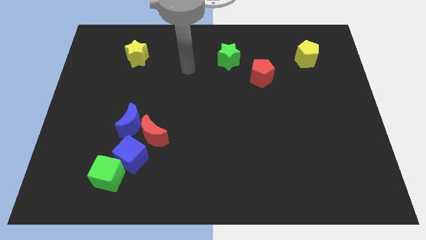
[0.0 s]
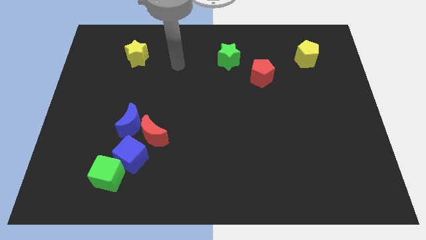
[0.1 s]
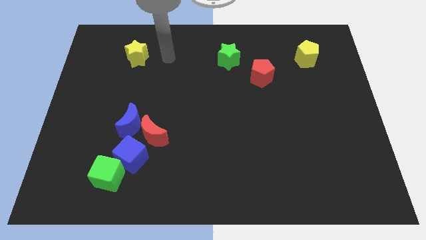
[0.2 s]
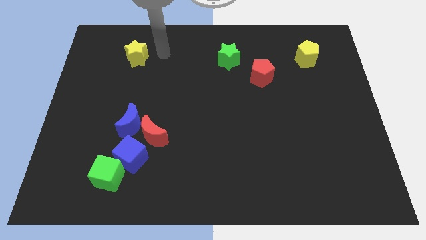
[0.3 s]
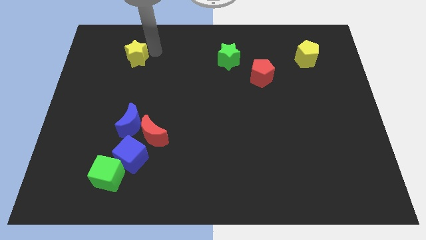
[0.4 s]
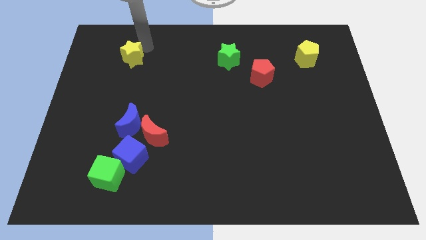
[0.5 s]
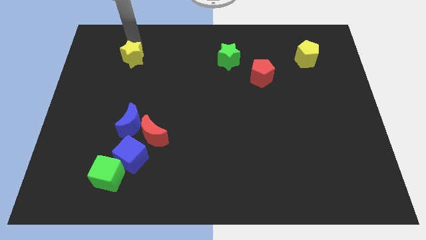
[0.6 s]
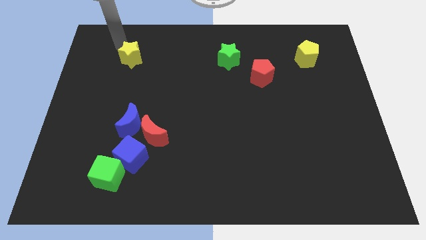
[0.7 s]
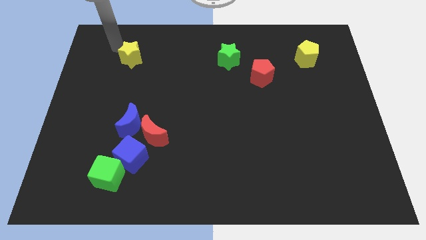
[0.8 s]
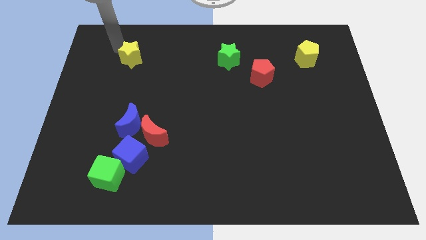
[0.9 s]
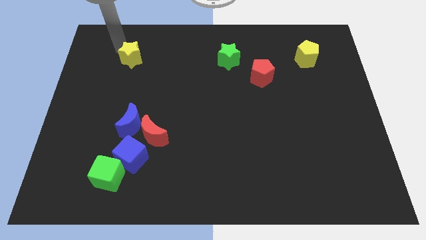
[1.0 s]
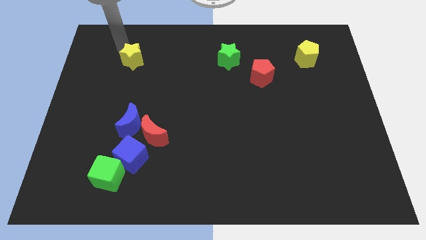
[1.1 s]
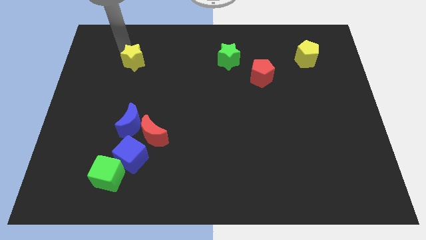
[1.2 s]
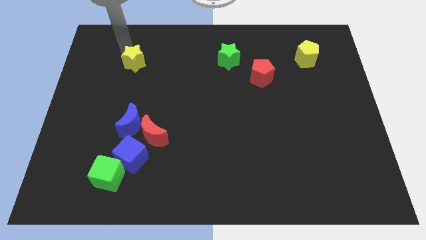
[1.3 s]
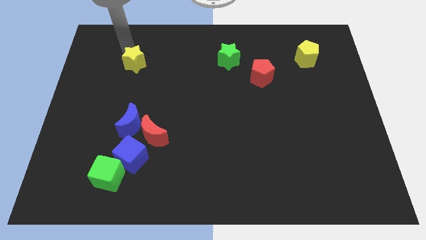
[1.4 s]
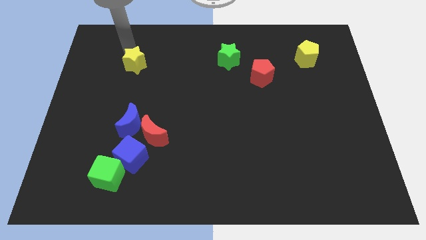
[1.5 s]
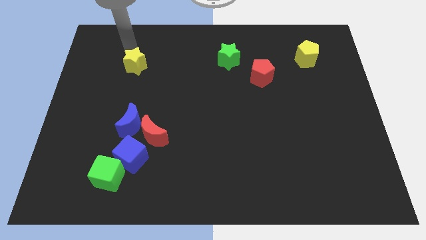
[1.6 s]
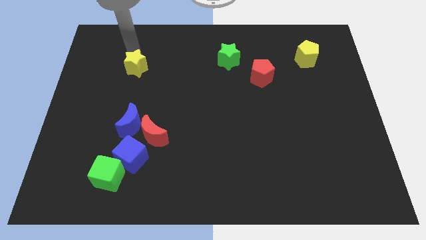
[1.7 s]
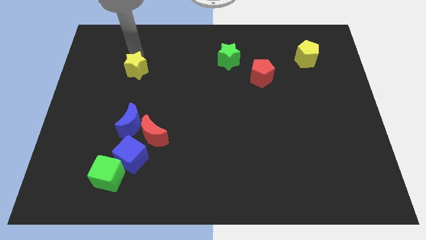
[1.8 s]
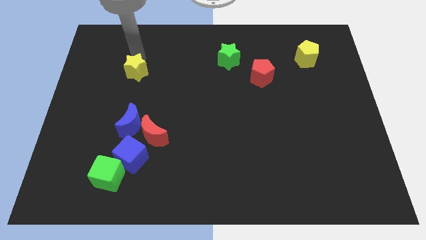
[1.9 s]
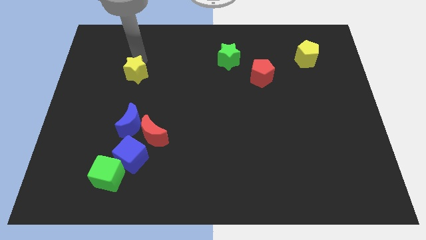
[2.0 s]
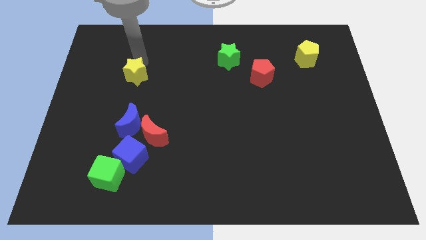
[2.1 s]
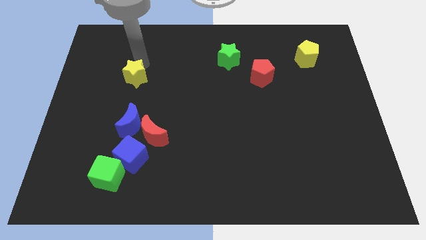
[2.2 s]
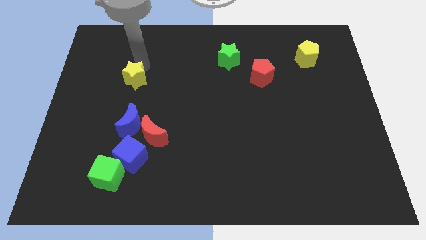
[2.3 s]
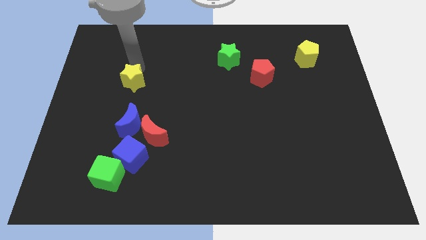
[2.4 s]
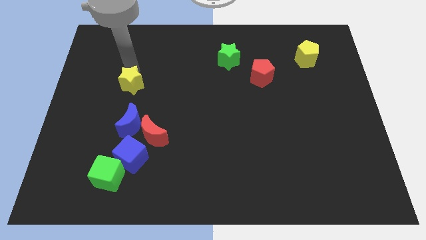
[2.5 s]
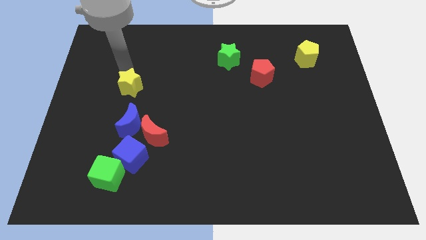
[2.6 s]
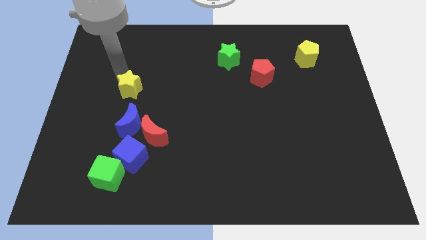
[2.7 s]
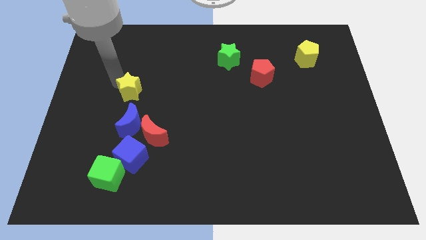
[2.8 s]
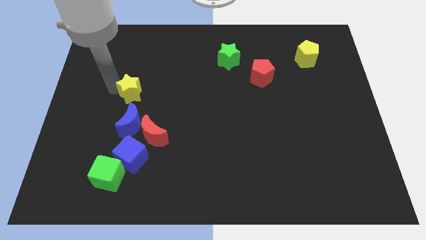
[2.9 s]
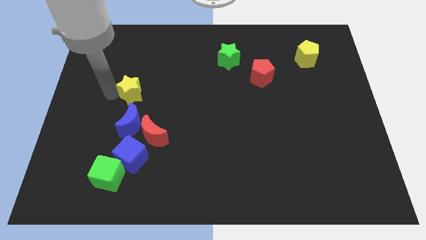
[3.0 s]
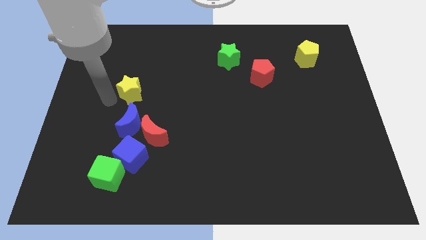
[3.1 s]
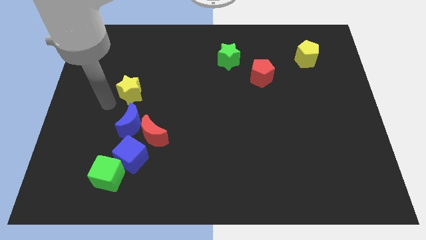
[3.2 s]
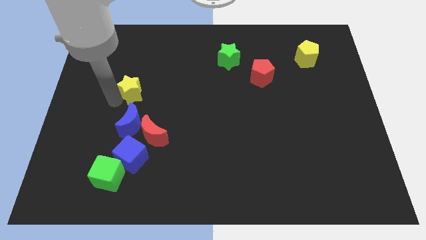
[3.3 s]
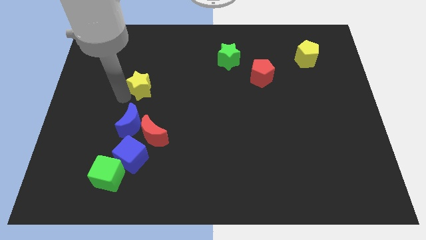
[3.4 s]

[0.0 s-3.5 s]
slightly move the yellow star down and to the right diagonally

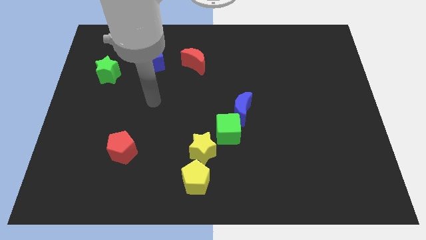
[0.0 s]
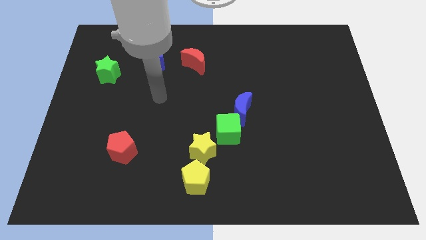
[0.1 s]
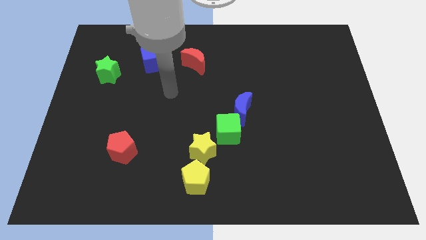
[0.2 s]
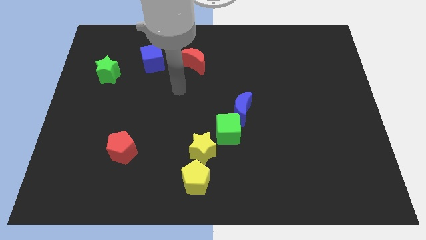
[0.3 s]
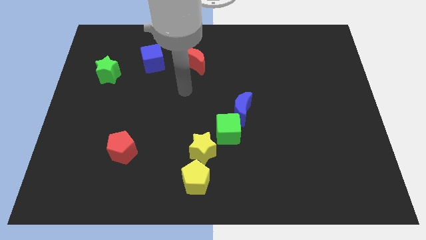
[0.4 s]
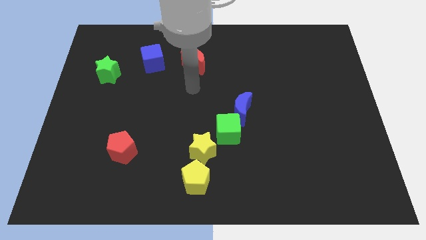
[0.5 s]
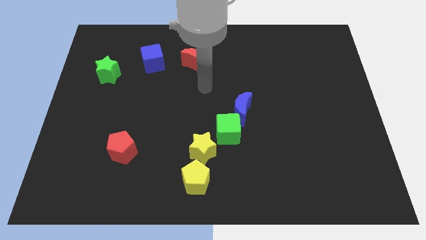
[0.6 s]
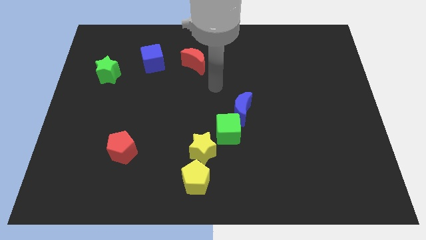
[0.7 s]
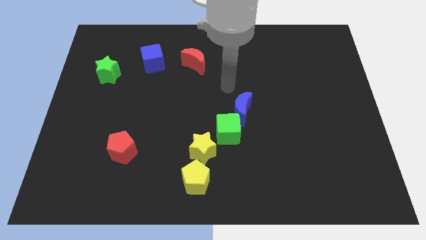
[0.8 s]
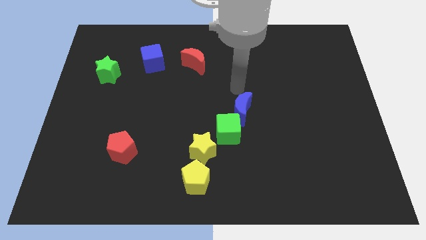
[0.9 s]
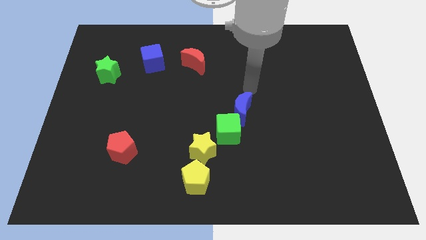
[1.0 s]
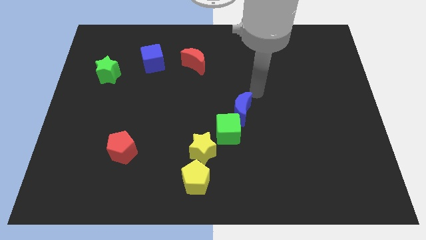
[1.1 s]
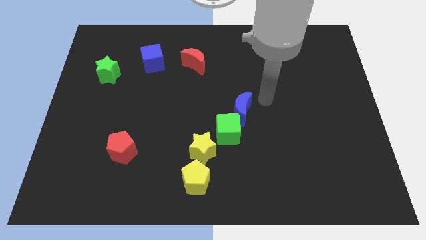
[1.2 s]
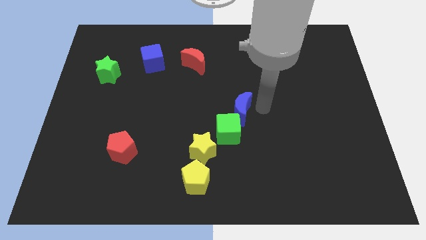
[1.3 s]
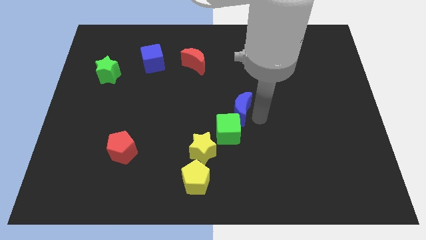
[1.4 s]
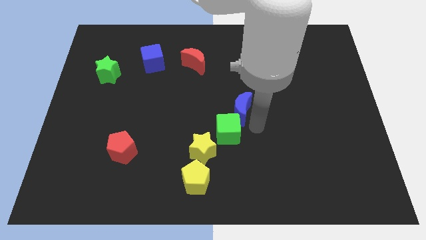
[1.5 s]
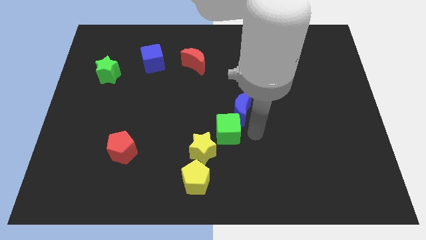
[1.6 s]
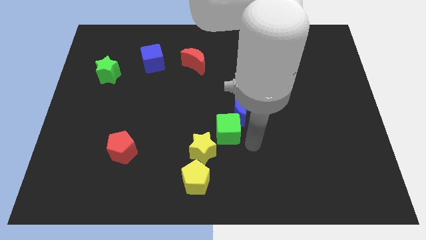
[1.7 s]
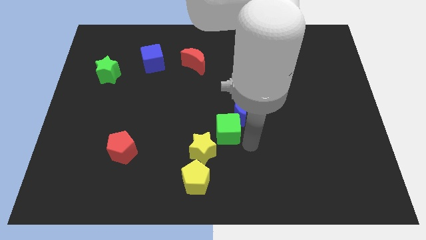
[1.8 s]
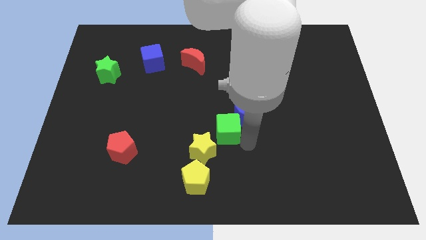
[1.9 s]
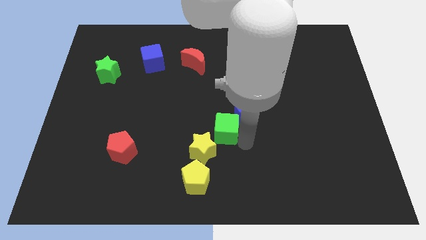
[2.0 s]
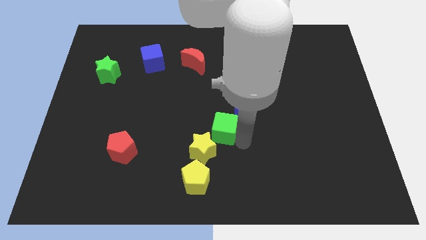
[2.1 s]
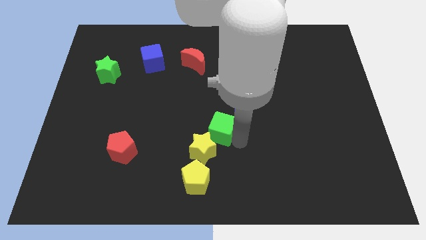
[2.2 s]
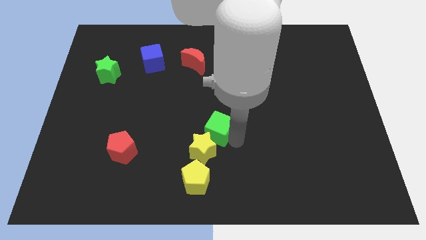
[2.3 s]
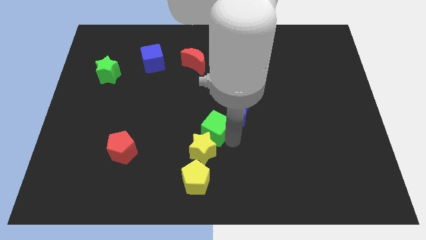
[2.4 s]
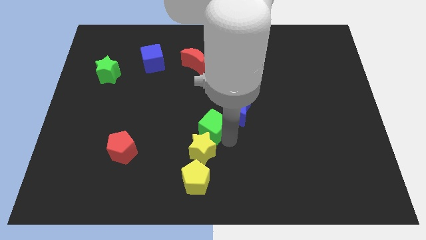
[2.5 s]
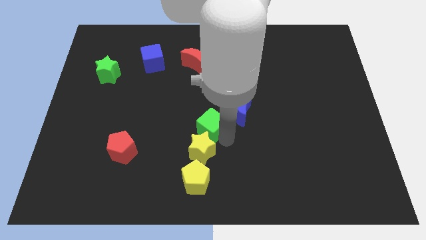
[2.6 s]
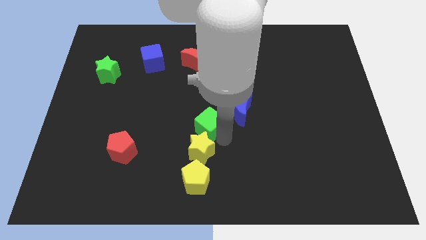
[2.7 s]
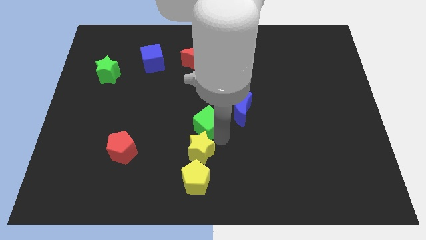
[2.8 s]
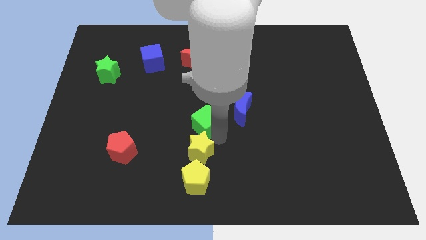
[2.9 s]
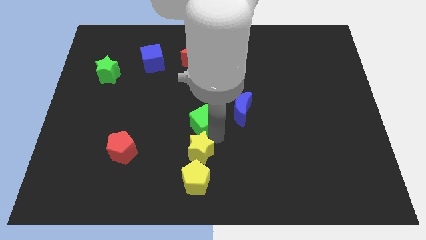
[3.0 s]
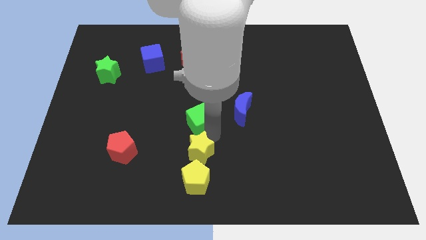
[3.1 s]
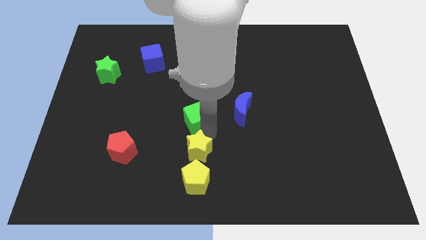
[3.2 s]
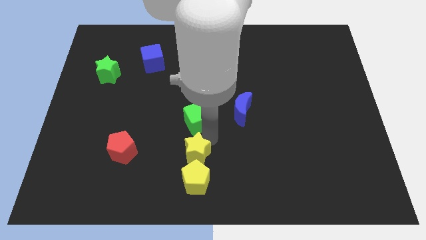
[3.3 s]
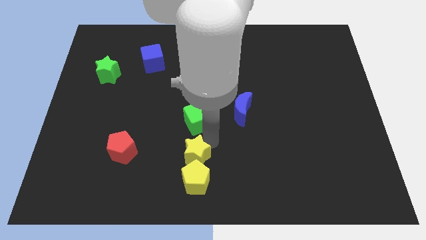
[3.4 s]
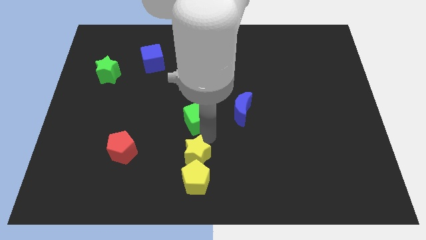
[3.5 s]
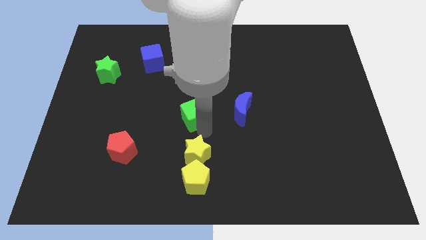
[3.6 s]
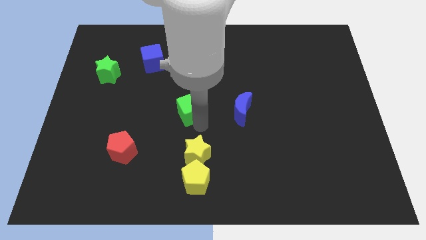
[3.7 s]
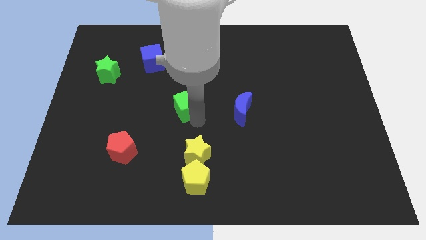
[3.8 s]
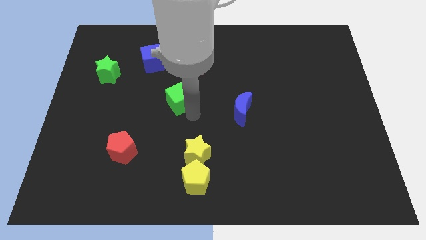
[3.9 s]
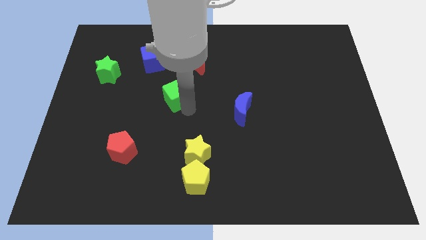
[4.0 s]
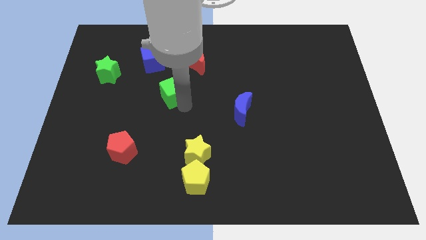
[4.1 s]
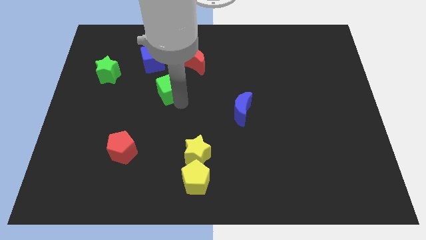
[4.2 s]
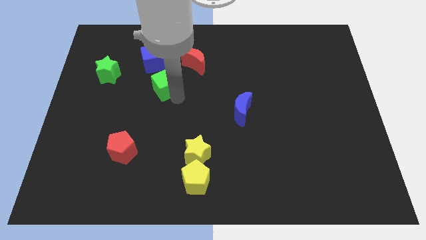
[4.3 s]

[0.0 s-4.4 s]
push the green cube upwards and left diagonally

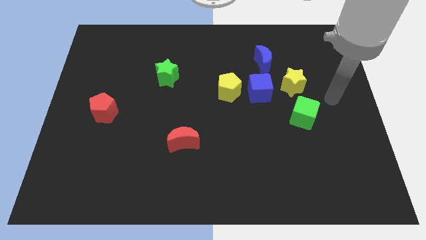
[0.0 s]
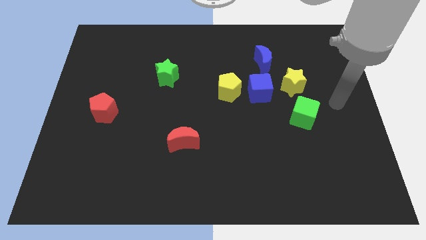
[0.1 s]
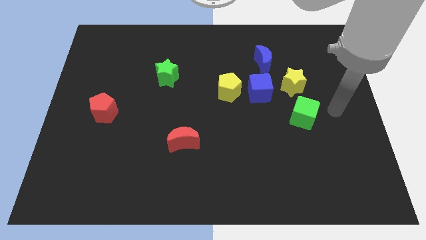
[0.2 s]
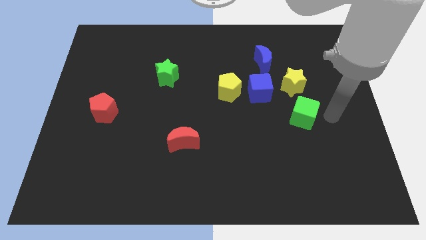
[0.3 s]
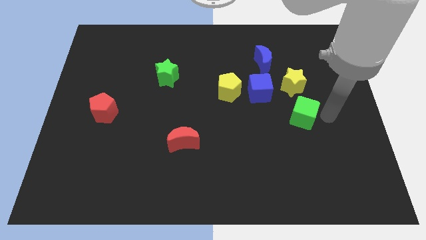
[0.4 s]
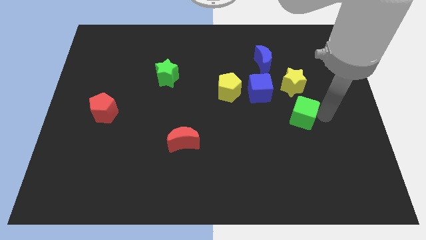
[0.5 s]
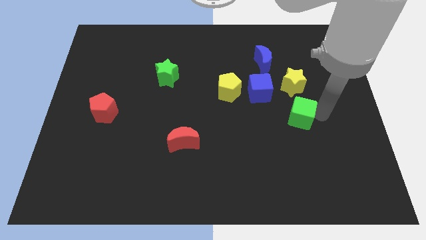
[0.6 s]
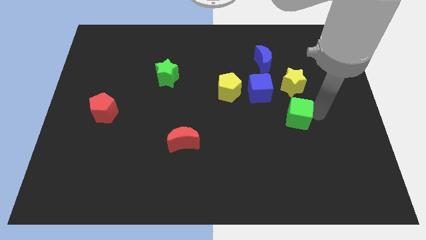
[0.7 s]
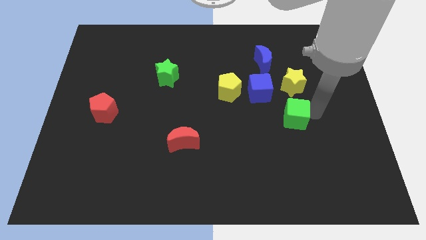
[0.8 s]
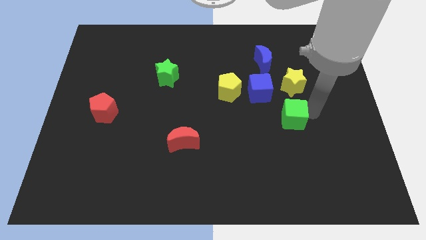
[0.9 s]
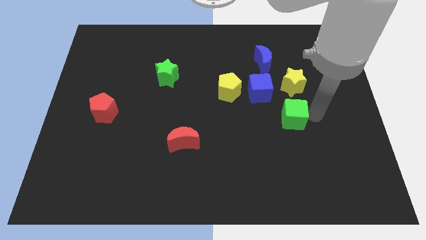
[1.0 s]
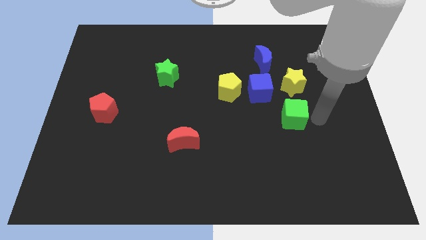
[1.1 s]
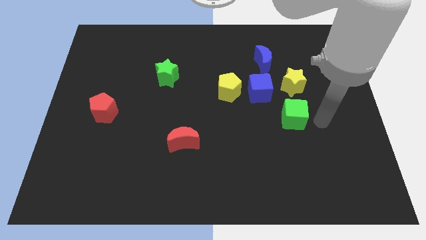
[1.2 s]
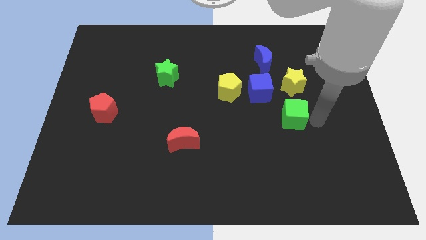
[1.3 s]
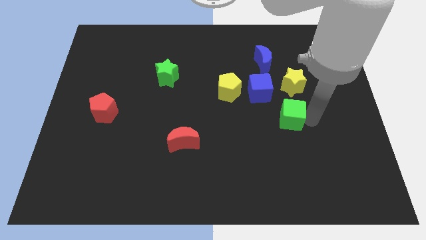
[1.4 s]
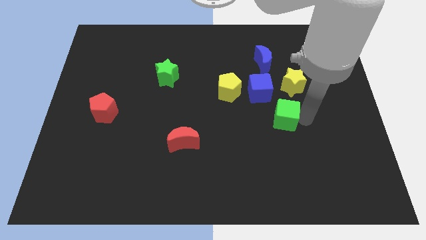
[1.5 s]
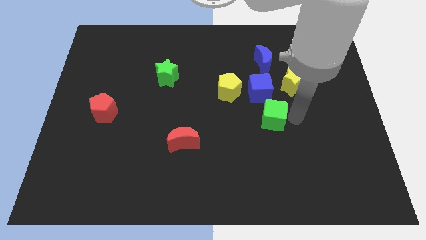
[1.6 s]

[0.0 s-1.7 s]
push the green cube a little bit to the left
